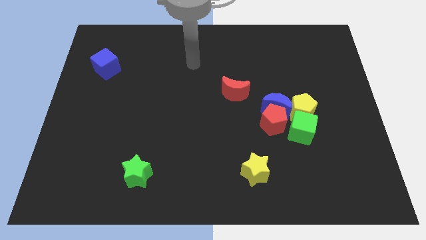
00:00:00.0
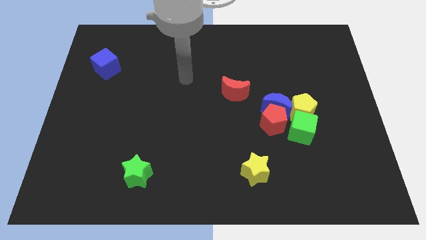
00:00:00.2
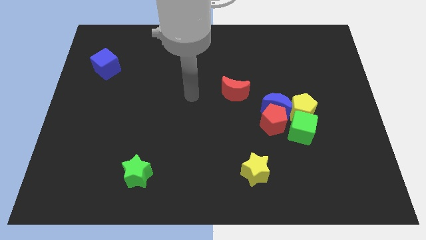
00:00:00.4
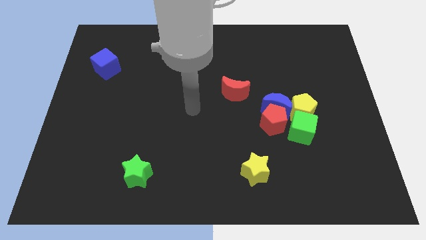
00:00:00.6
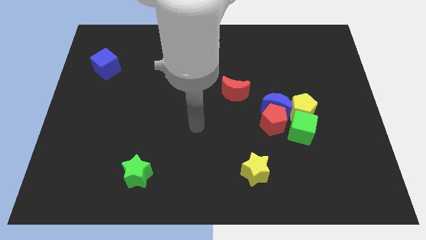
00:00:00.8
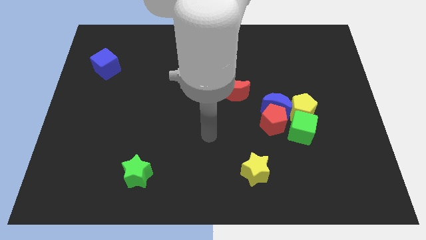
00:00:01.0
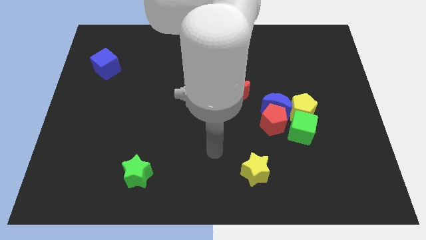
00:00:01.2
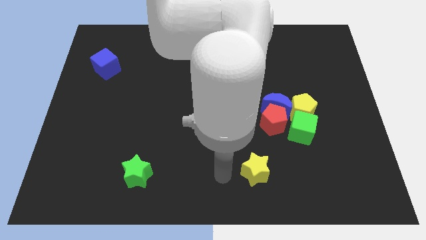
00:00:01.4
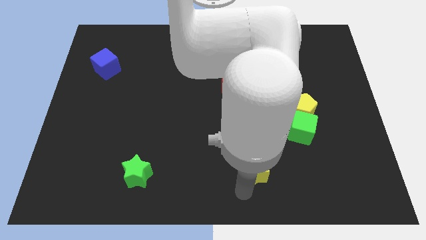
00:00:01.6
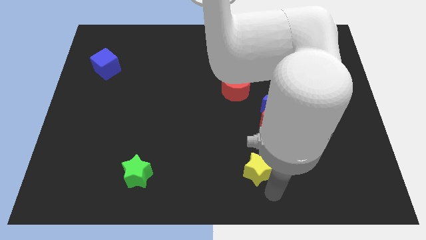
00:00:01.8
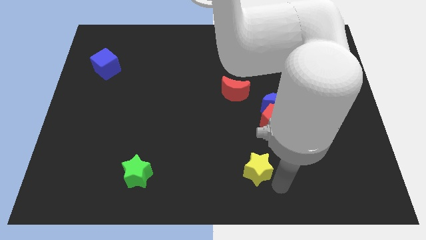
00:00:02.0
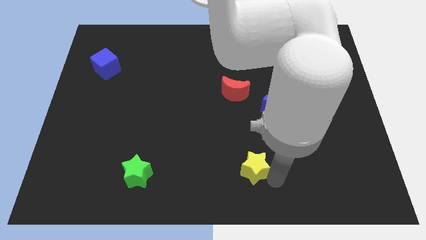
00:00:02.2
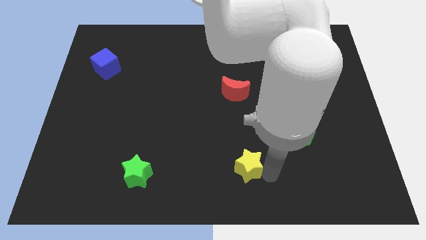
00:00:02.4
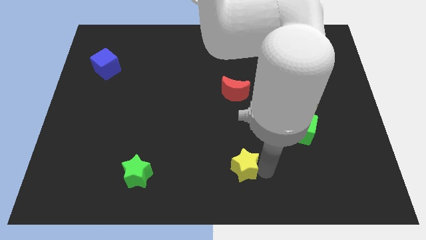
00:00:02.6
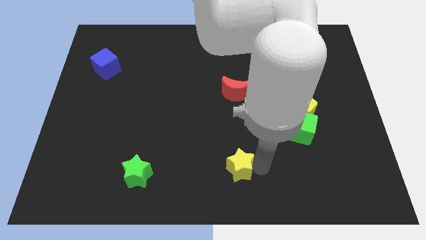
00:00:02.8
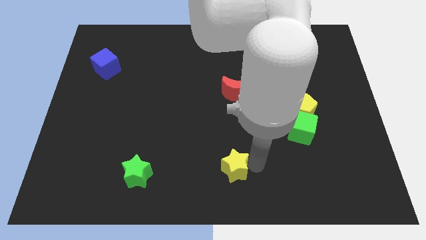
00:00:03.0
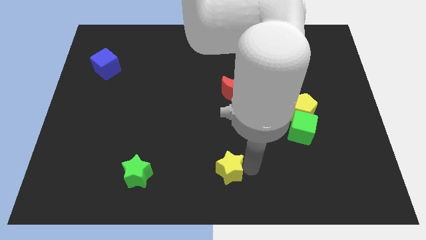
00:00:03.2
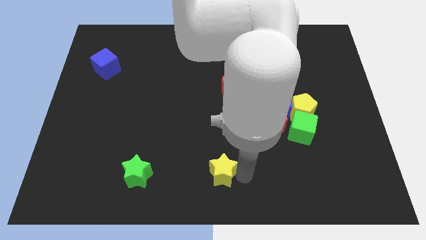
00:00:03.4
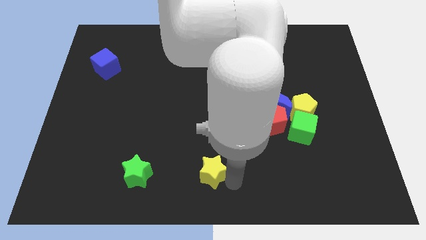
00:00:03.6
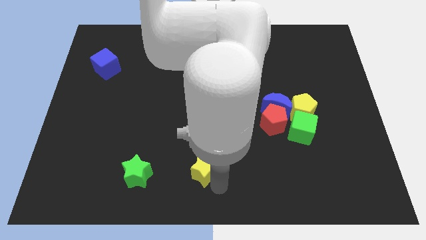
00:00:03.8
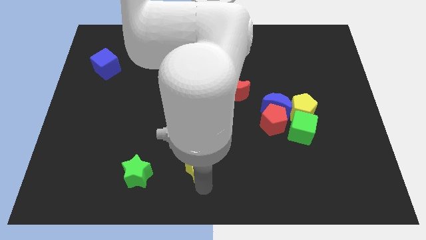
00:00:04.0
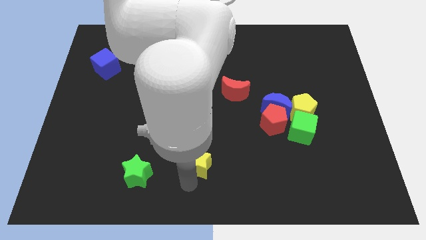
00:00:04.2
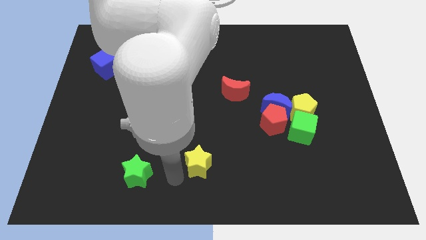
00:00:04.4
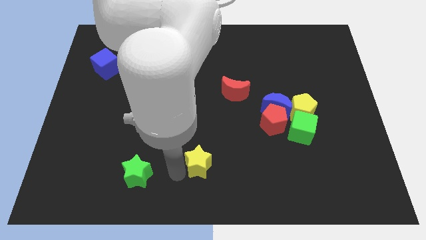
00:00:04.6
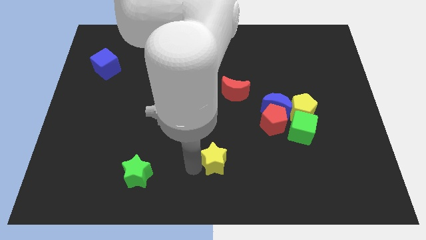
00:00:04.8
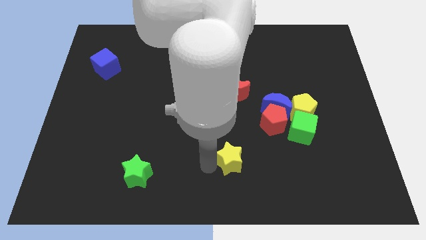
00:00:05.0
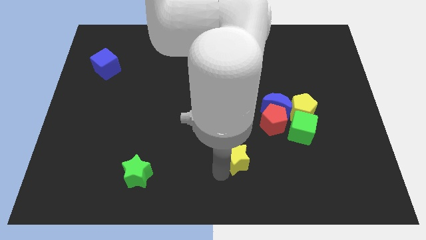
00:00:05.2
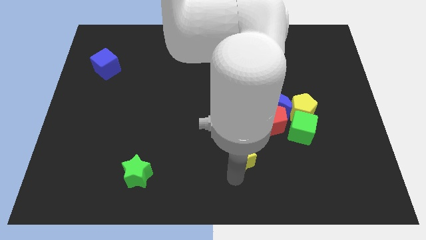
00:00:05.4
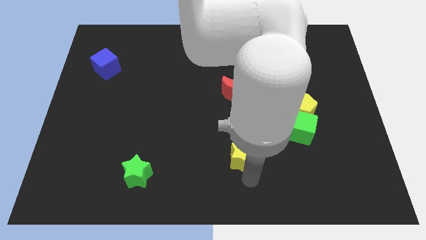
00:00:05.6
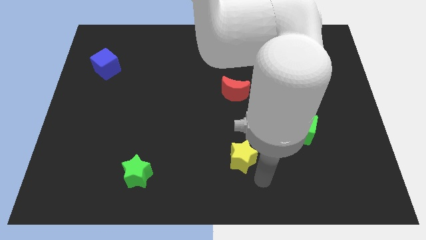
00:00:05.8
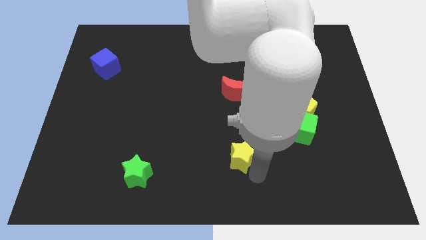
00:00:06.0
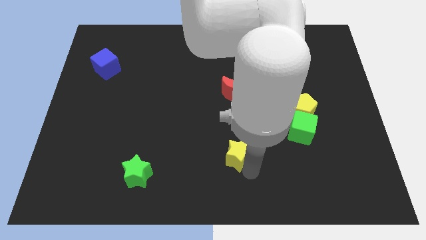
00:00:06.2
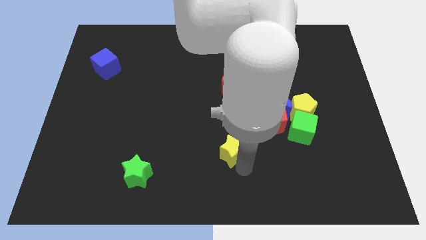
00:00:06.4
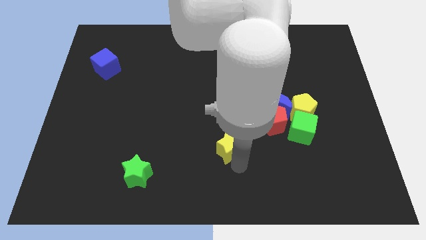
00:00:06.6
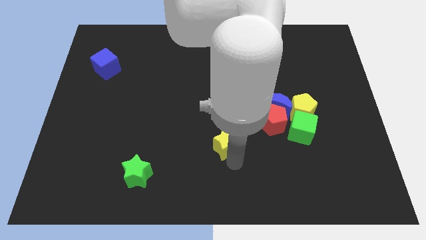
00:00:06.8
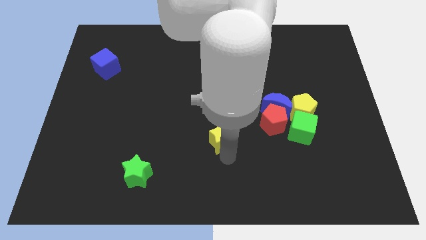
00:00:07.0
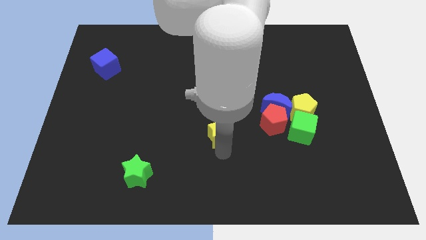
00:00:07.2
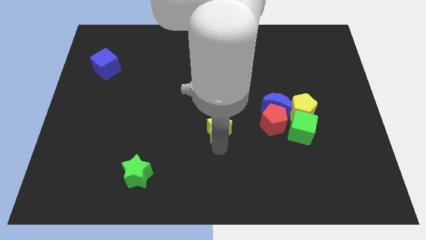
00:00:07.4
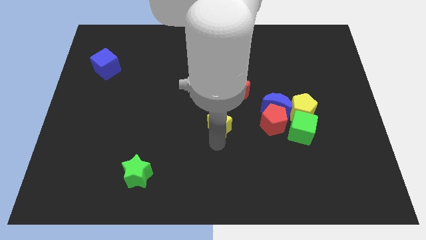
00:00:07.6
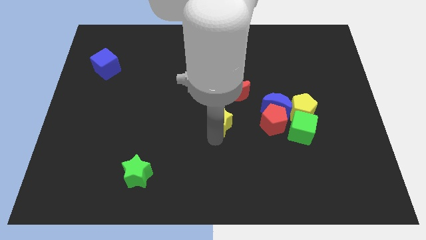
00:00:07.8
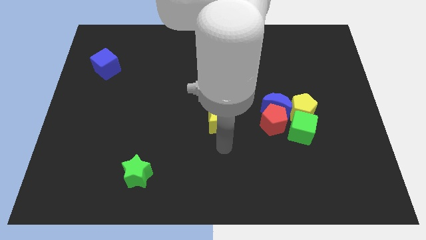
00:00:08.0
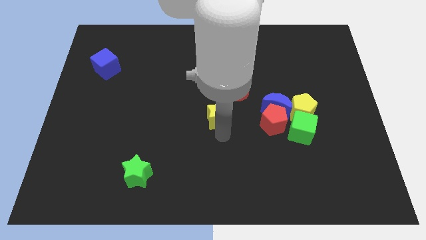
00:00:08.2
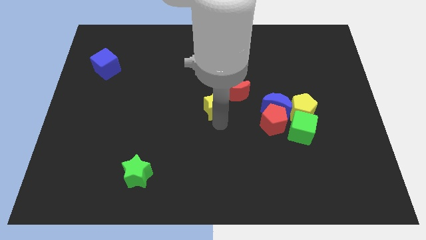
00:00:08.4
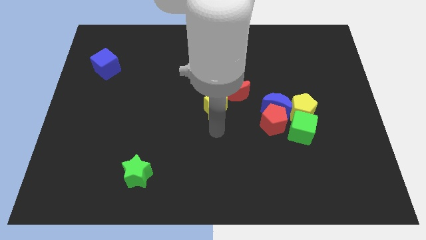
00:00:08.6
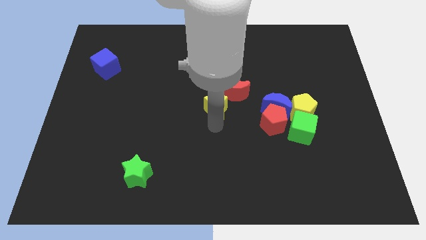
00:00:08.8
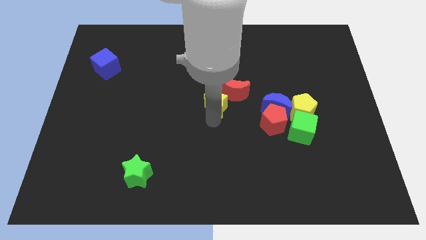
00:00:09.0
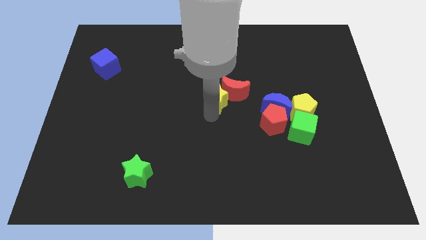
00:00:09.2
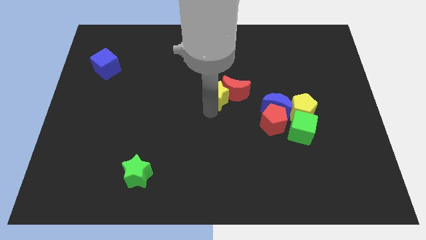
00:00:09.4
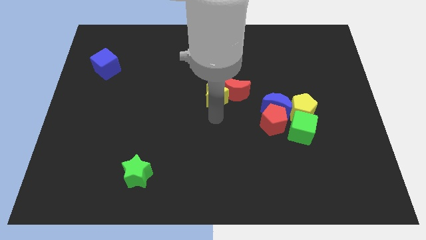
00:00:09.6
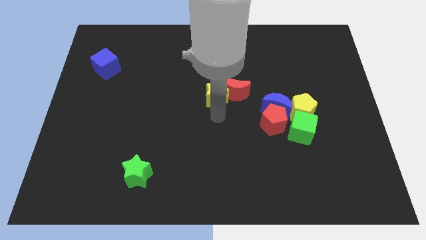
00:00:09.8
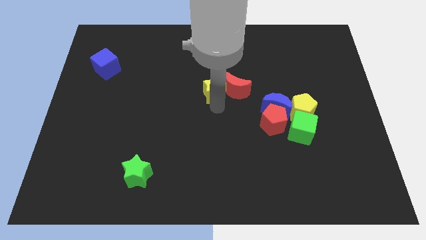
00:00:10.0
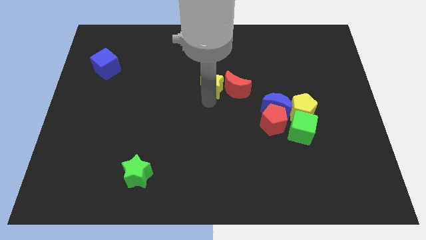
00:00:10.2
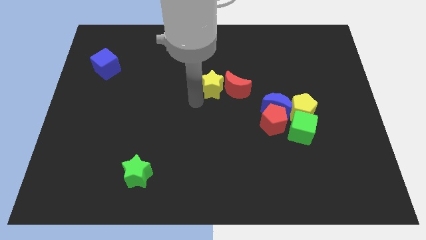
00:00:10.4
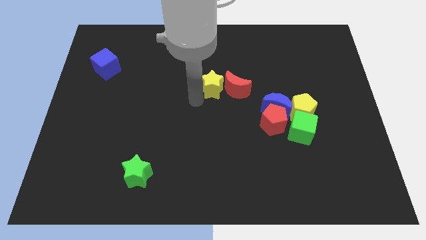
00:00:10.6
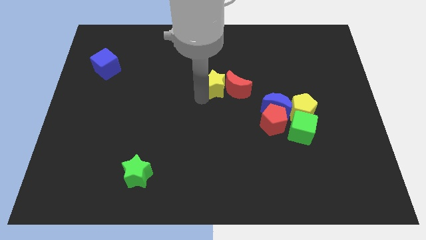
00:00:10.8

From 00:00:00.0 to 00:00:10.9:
slide the yellow star up

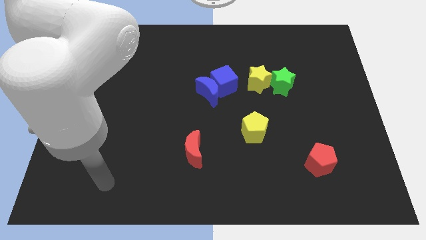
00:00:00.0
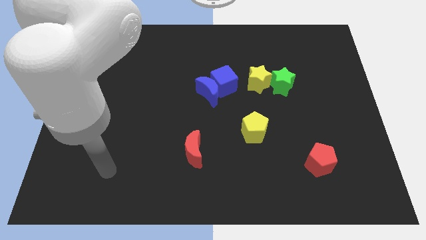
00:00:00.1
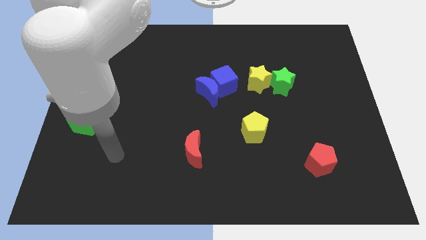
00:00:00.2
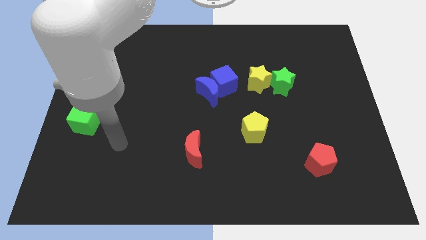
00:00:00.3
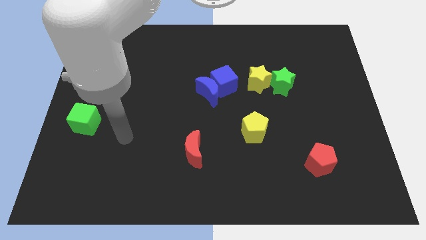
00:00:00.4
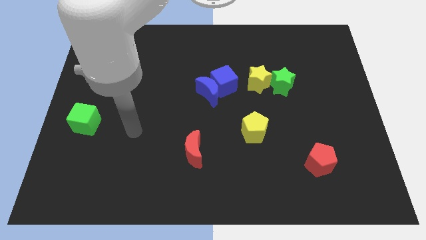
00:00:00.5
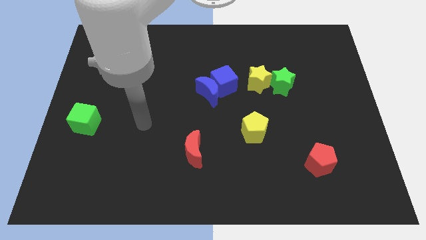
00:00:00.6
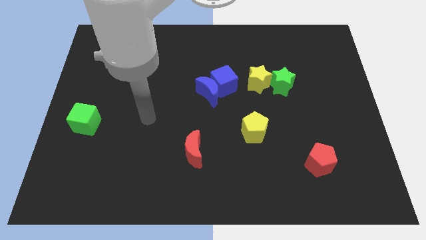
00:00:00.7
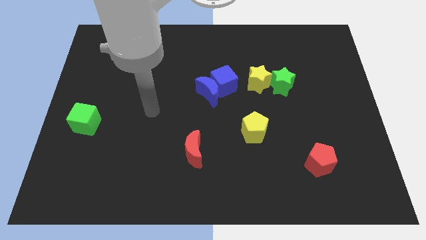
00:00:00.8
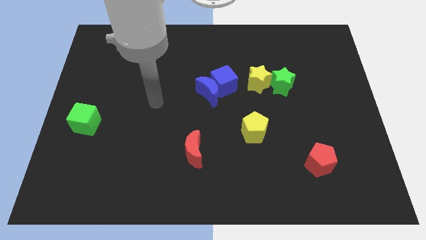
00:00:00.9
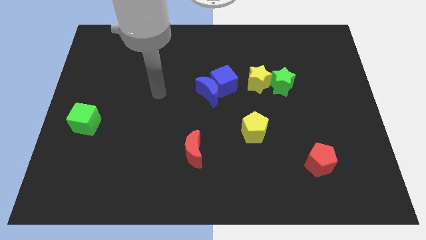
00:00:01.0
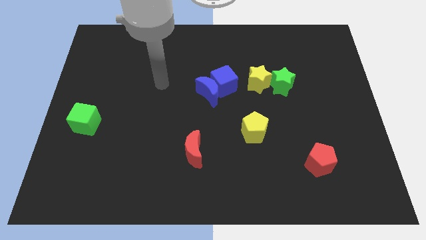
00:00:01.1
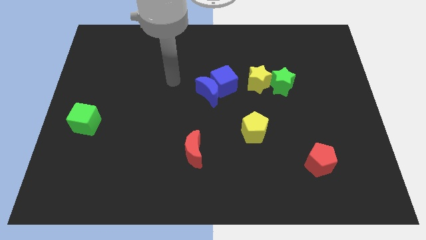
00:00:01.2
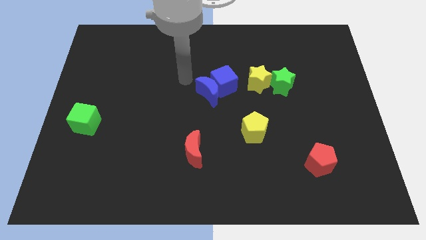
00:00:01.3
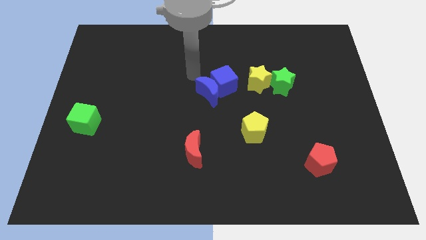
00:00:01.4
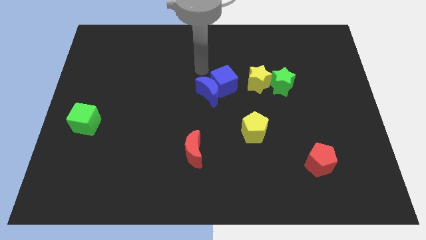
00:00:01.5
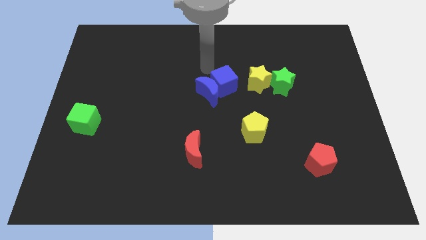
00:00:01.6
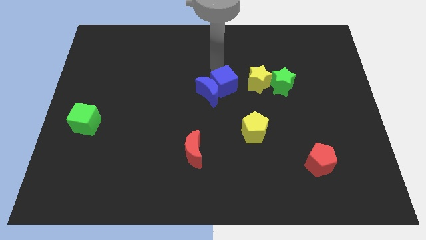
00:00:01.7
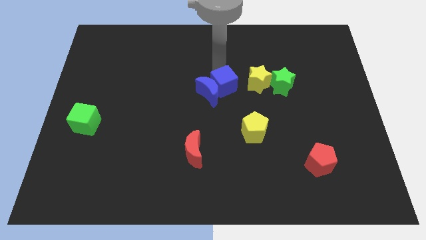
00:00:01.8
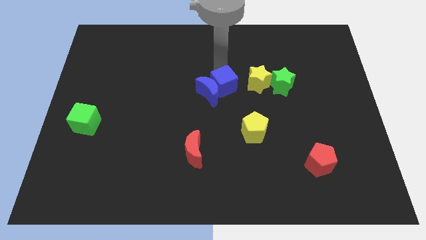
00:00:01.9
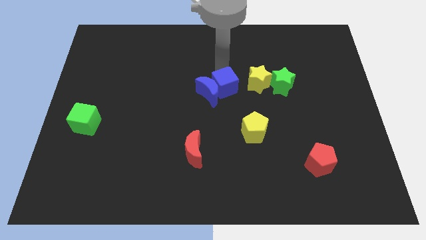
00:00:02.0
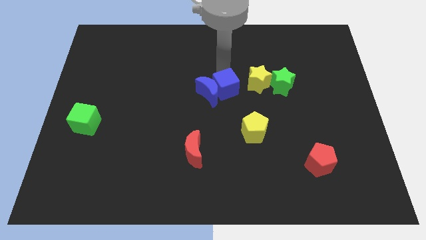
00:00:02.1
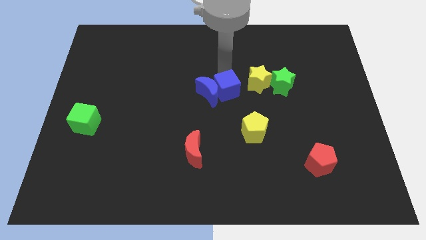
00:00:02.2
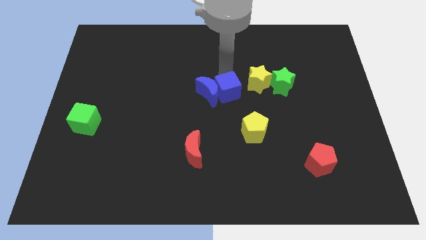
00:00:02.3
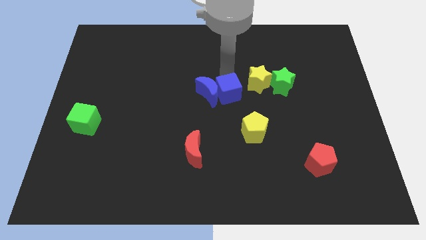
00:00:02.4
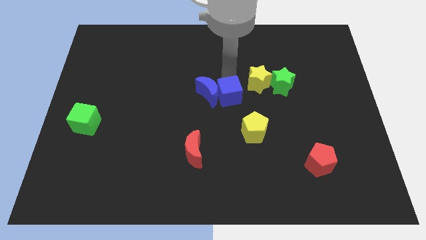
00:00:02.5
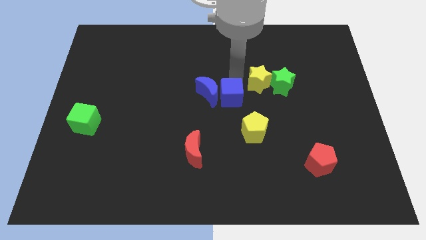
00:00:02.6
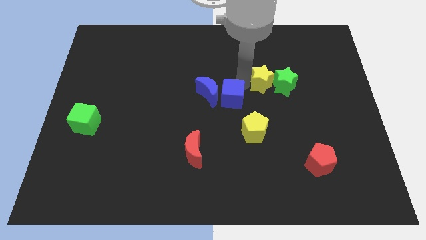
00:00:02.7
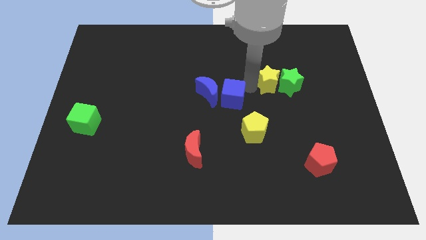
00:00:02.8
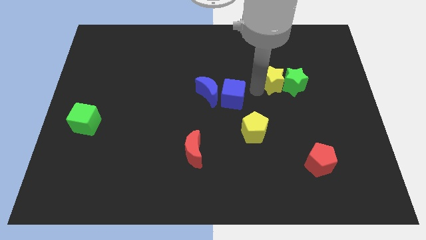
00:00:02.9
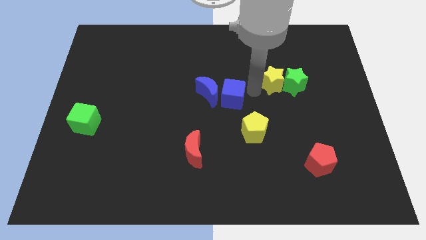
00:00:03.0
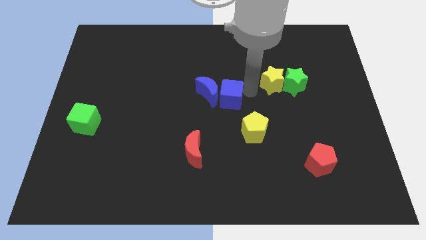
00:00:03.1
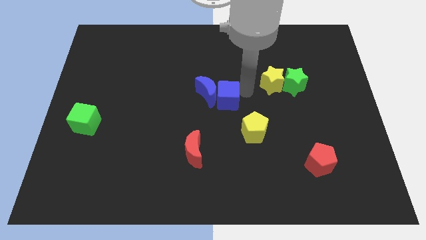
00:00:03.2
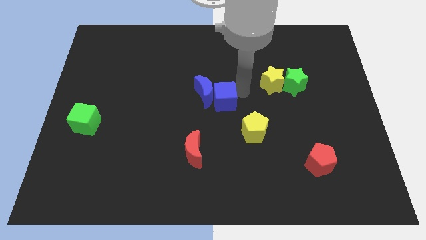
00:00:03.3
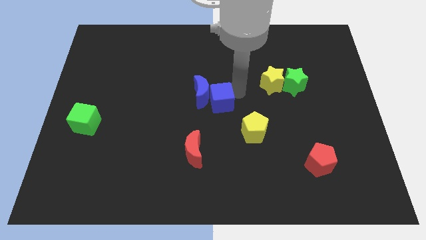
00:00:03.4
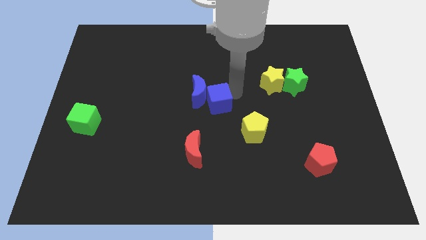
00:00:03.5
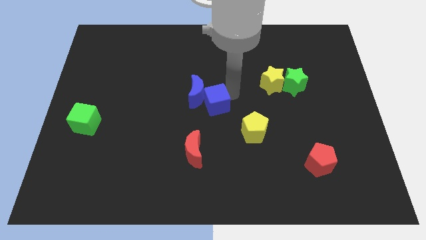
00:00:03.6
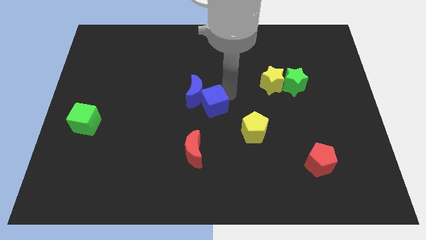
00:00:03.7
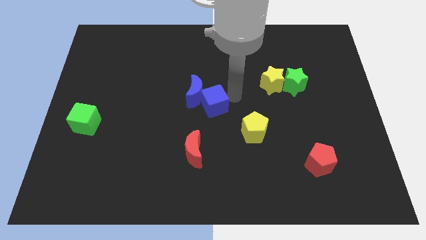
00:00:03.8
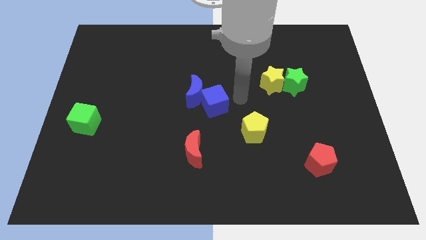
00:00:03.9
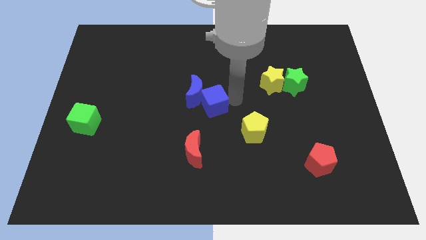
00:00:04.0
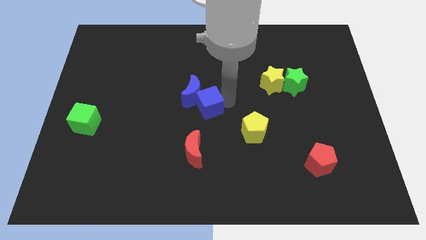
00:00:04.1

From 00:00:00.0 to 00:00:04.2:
slightly slide the blue cube down and left
